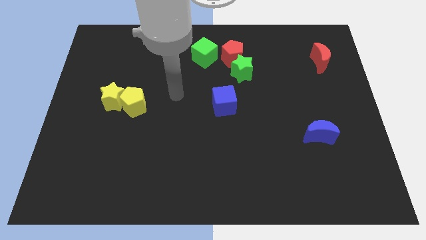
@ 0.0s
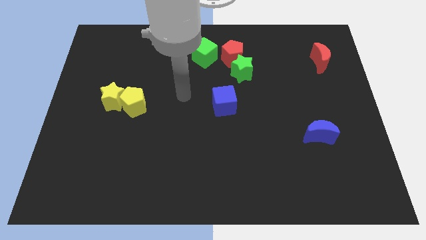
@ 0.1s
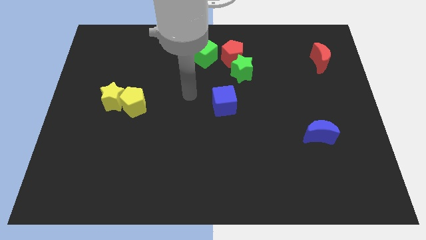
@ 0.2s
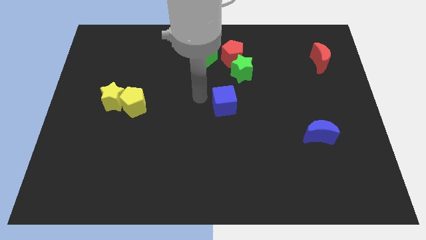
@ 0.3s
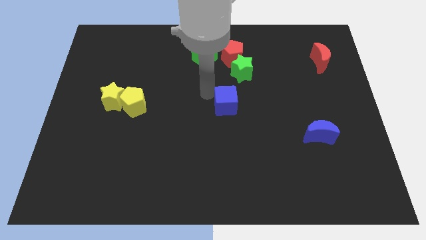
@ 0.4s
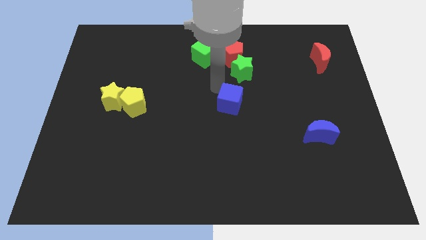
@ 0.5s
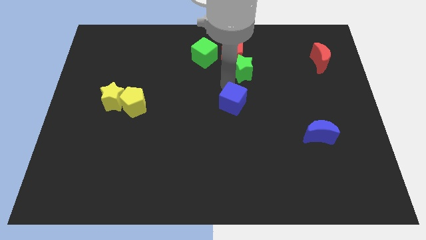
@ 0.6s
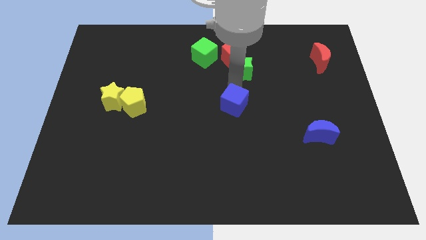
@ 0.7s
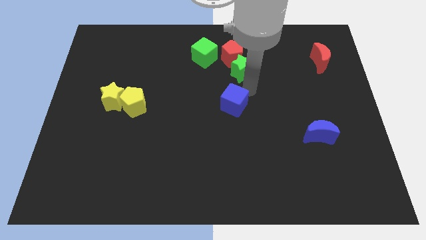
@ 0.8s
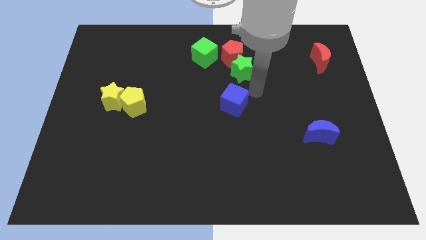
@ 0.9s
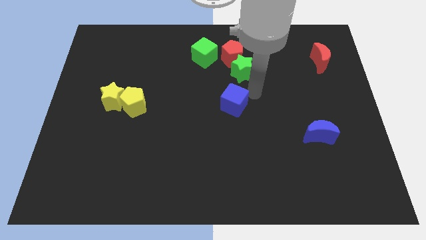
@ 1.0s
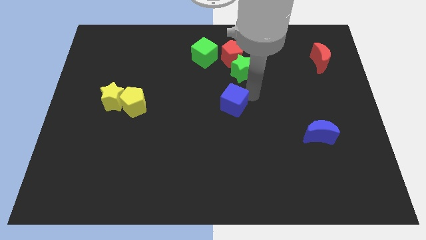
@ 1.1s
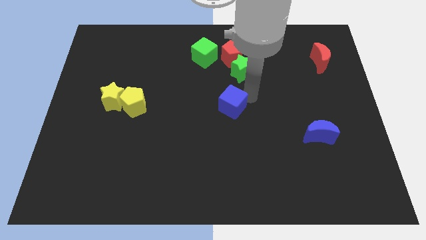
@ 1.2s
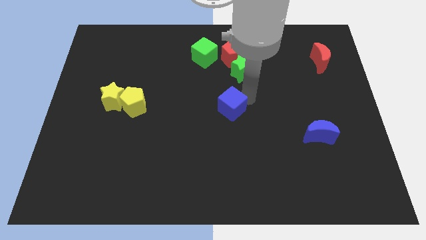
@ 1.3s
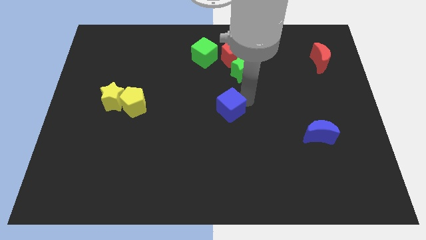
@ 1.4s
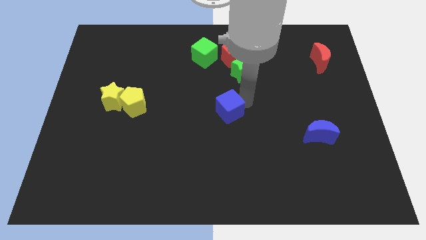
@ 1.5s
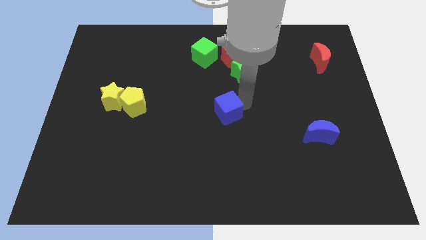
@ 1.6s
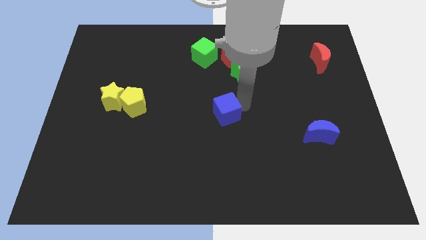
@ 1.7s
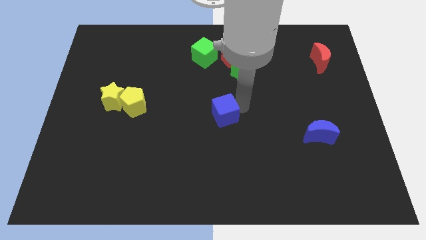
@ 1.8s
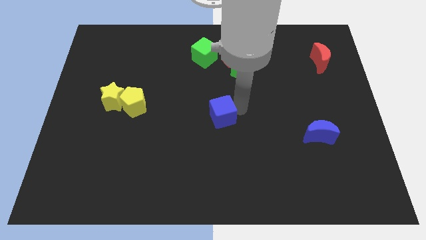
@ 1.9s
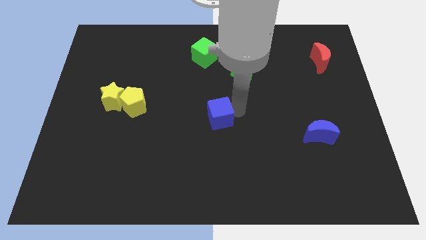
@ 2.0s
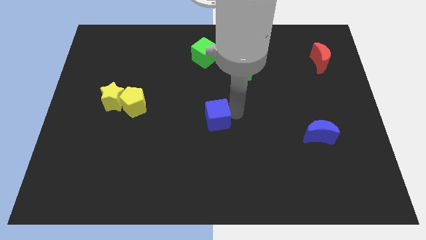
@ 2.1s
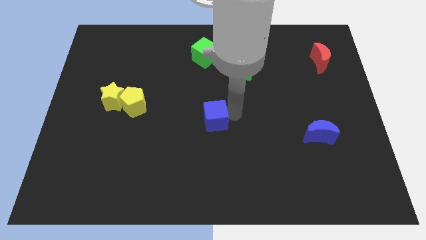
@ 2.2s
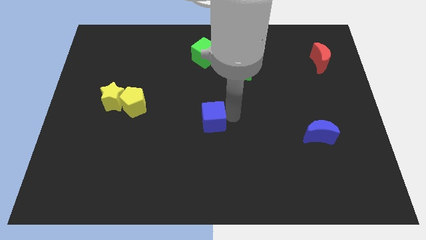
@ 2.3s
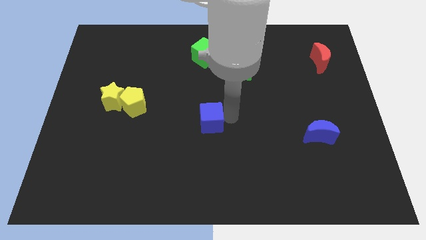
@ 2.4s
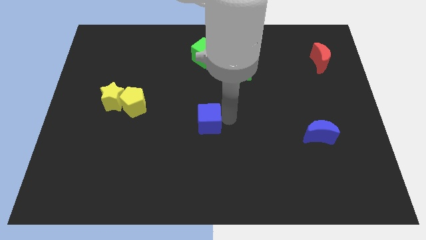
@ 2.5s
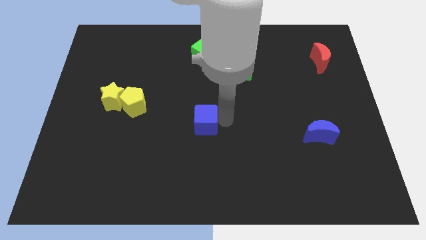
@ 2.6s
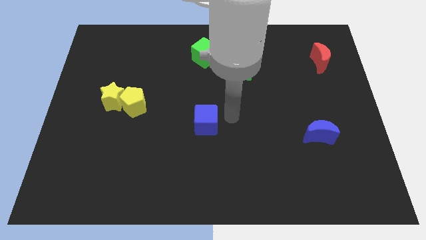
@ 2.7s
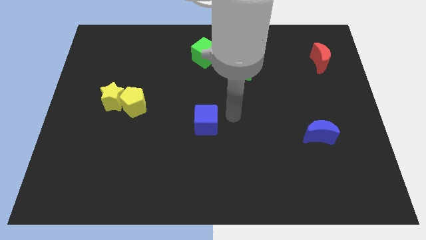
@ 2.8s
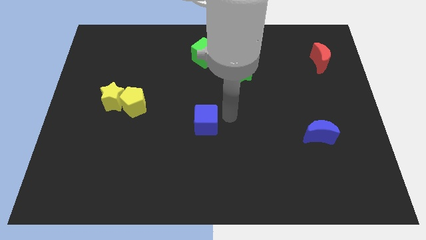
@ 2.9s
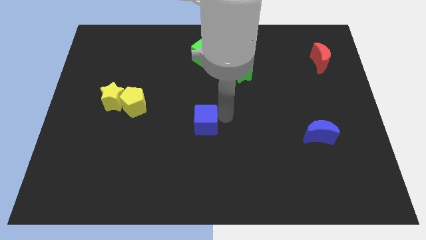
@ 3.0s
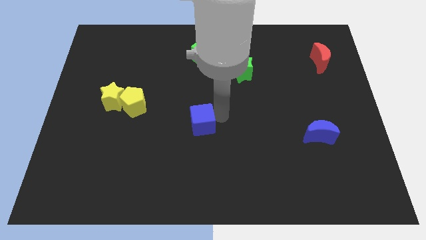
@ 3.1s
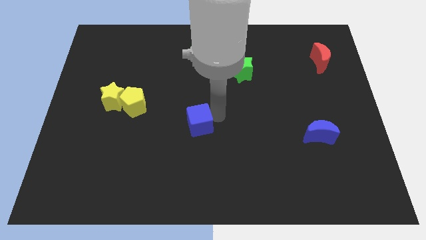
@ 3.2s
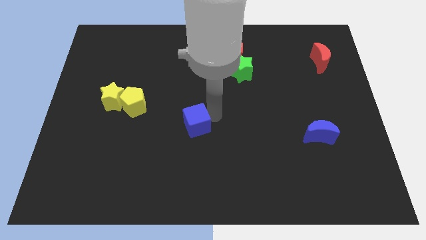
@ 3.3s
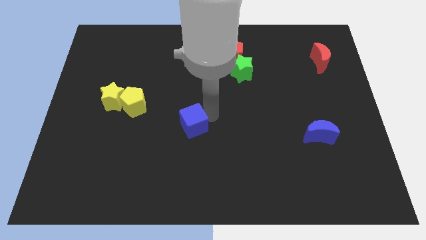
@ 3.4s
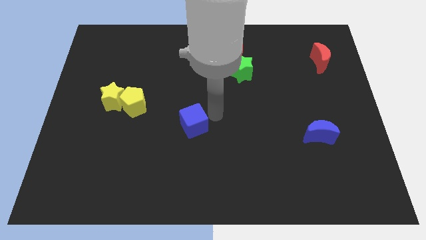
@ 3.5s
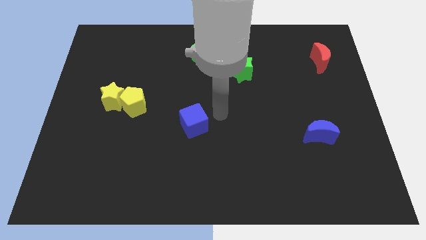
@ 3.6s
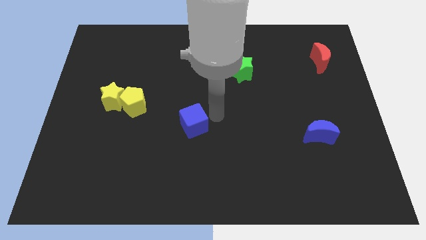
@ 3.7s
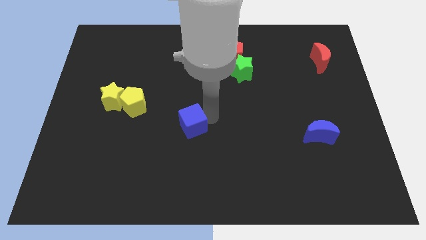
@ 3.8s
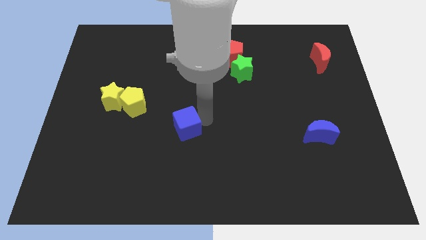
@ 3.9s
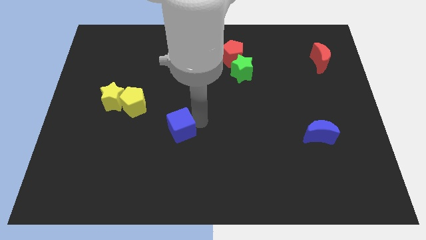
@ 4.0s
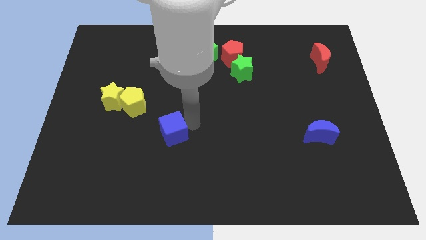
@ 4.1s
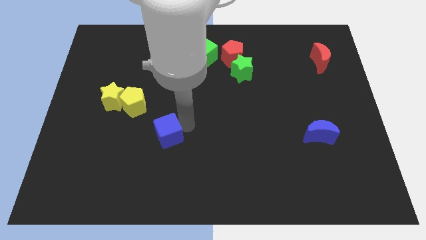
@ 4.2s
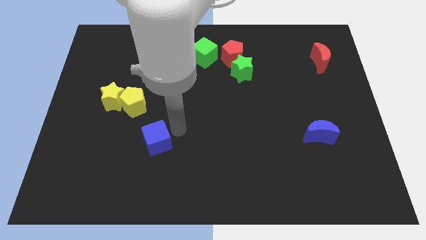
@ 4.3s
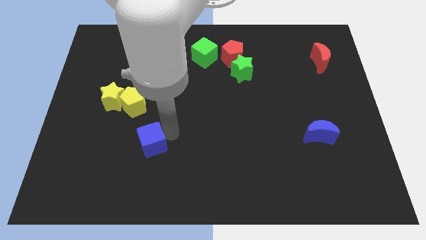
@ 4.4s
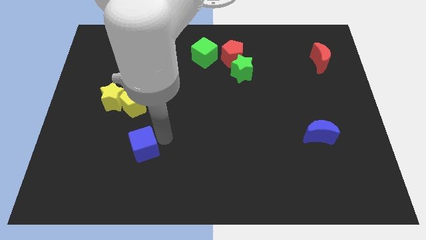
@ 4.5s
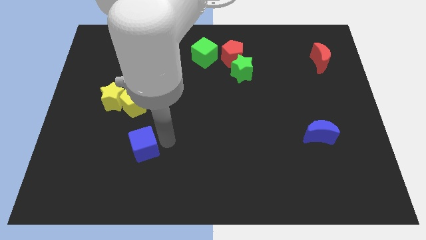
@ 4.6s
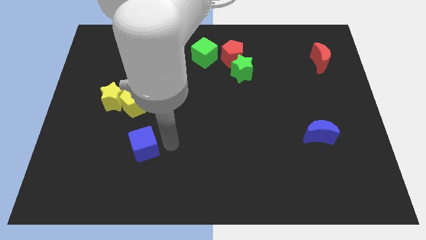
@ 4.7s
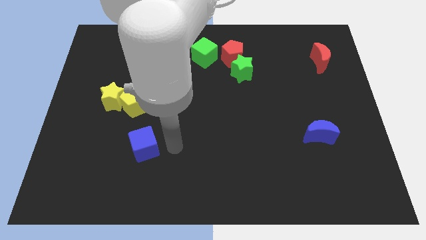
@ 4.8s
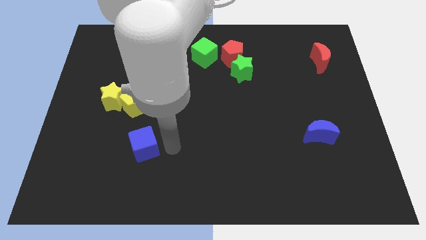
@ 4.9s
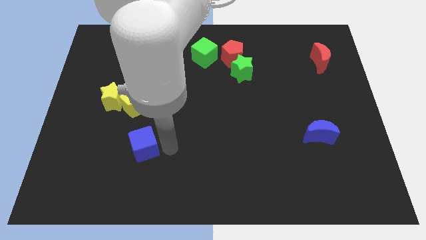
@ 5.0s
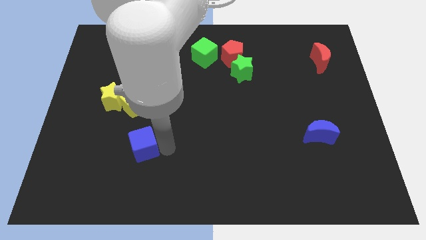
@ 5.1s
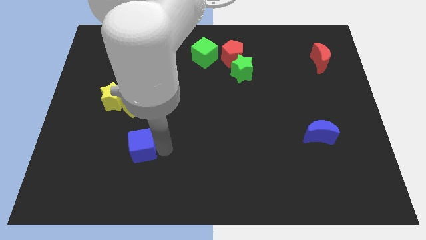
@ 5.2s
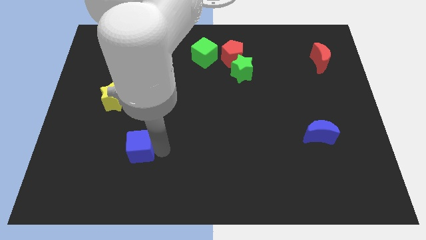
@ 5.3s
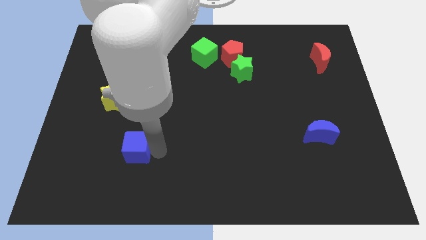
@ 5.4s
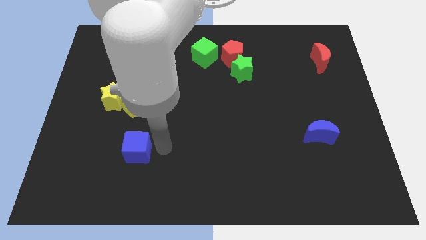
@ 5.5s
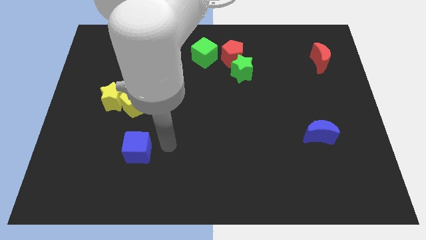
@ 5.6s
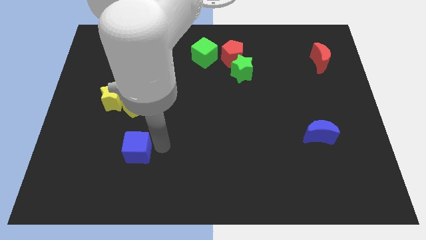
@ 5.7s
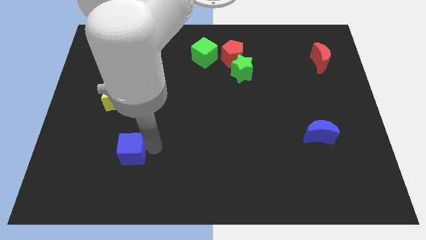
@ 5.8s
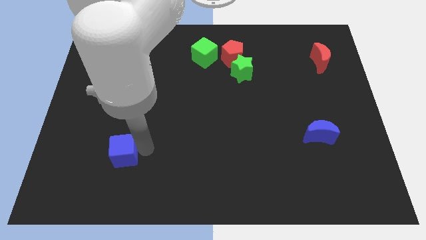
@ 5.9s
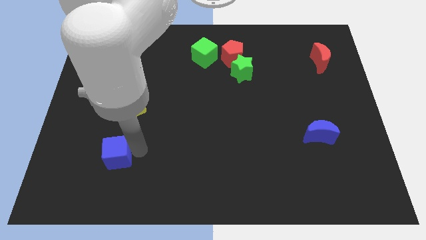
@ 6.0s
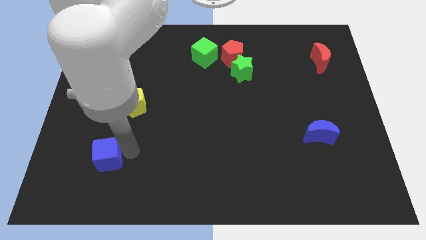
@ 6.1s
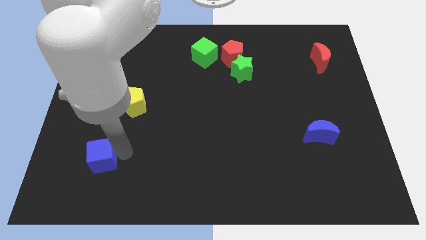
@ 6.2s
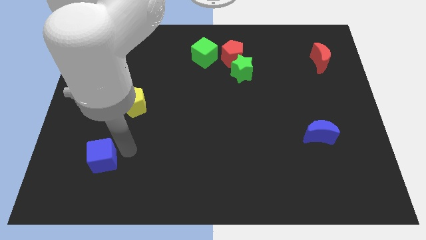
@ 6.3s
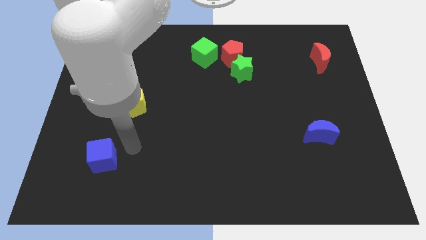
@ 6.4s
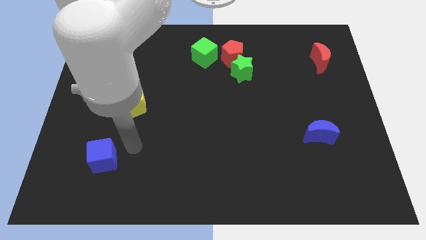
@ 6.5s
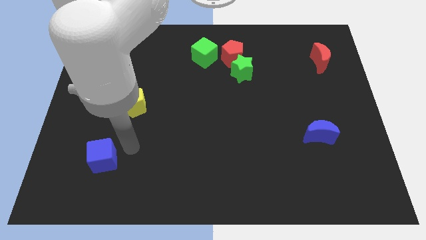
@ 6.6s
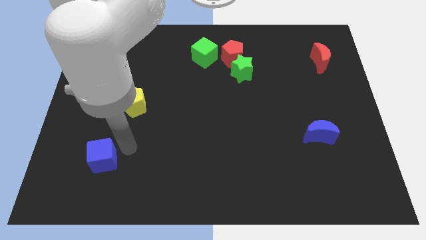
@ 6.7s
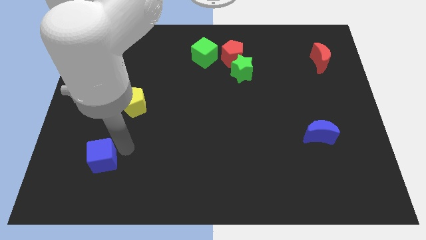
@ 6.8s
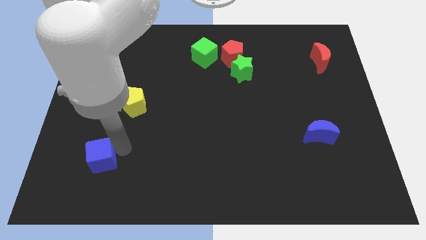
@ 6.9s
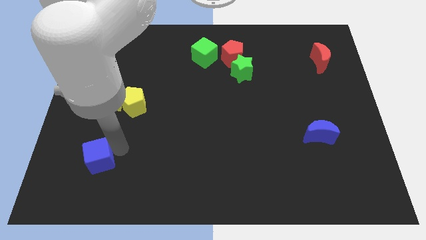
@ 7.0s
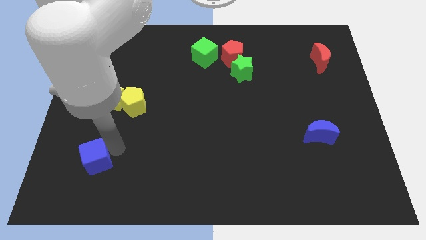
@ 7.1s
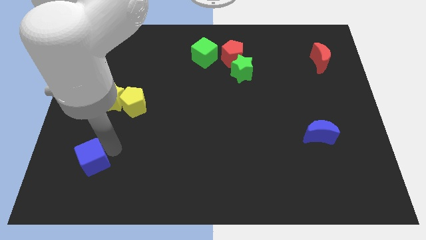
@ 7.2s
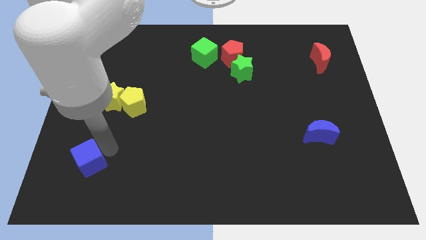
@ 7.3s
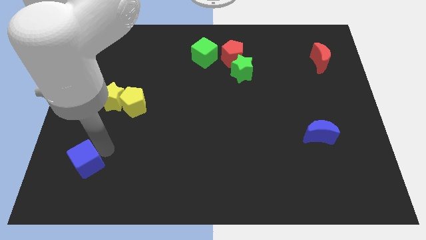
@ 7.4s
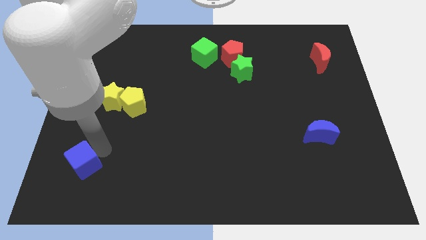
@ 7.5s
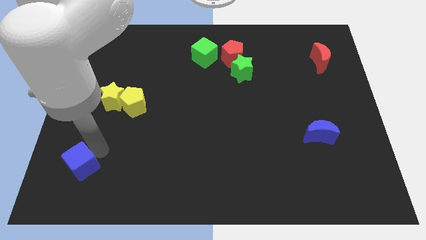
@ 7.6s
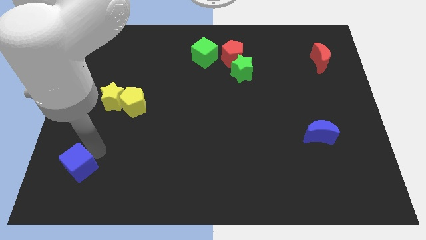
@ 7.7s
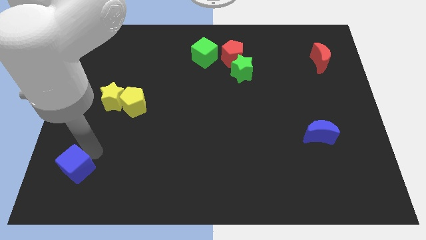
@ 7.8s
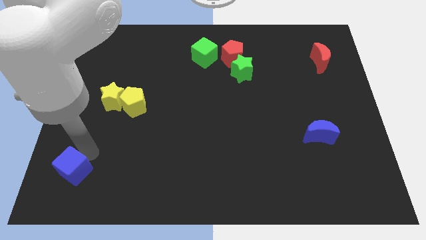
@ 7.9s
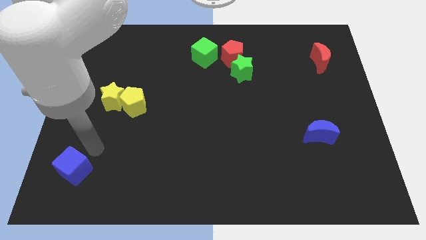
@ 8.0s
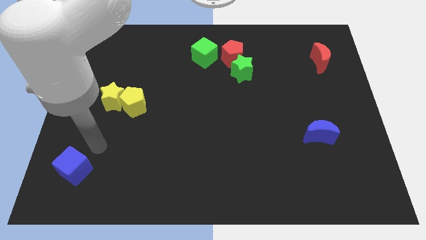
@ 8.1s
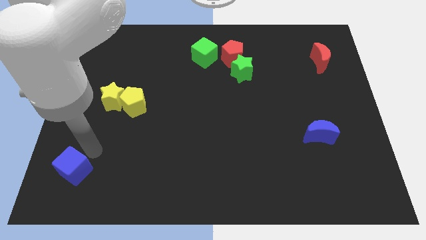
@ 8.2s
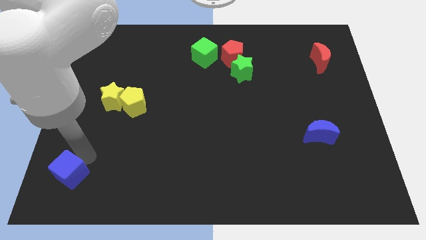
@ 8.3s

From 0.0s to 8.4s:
put the blue cube to the bottom left corner
